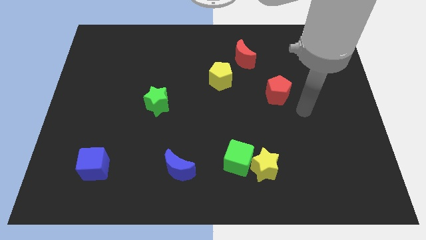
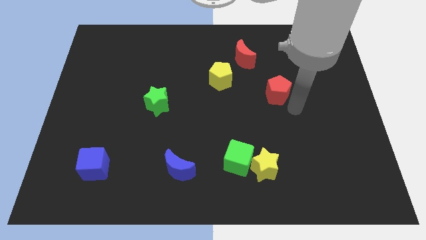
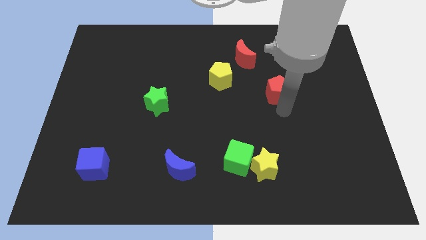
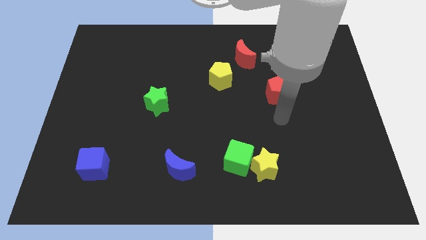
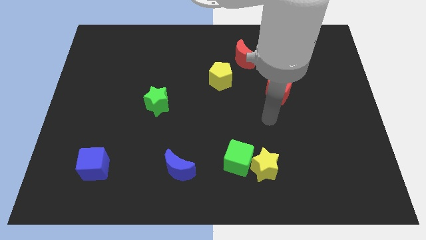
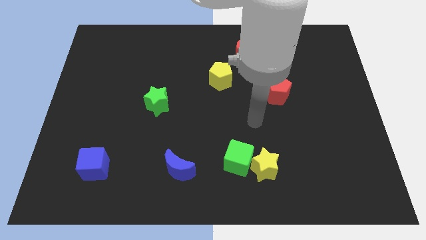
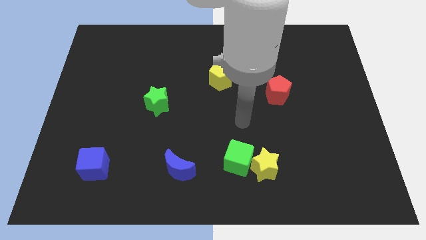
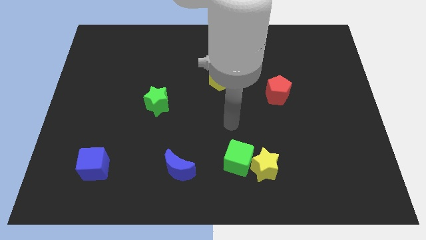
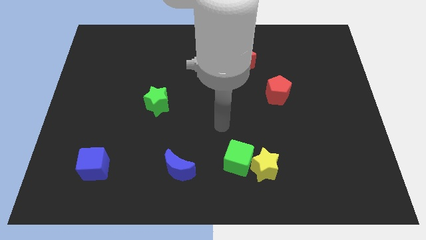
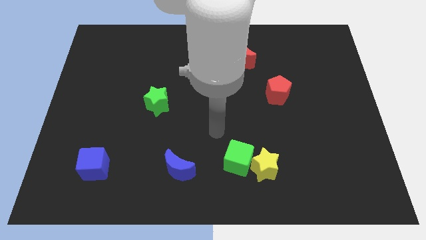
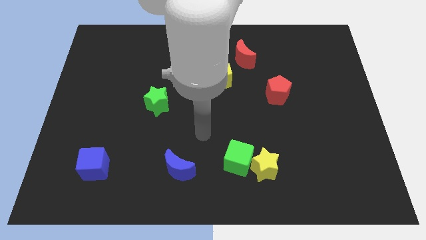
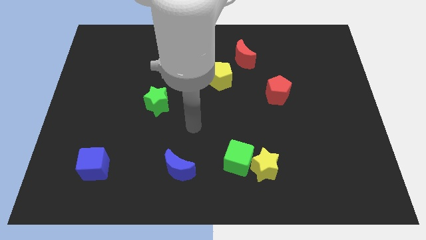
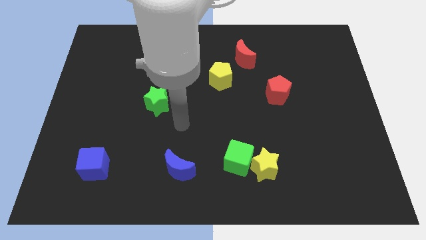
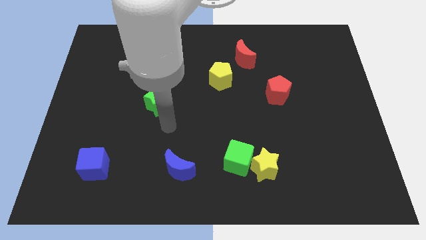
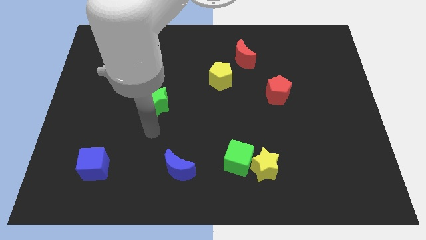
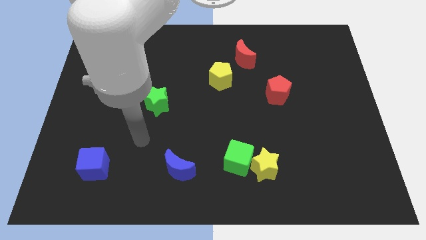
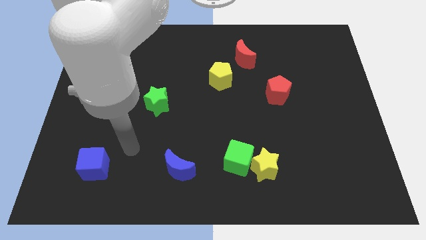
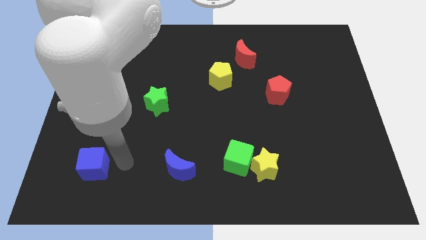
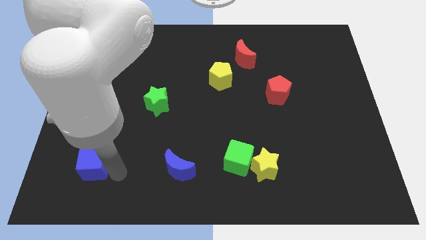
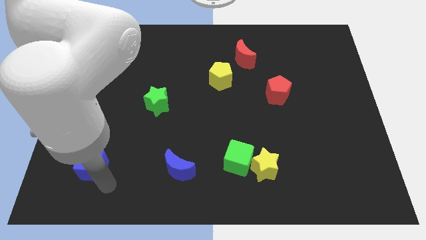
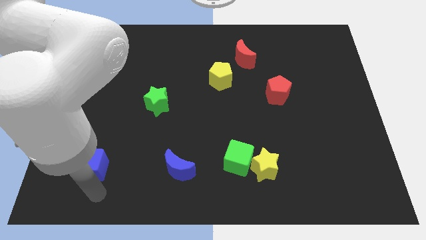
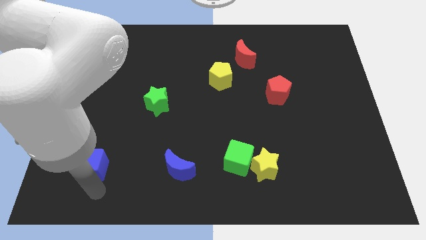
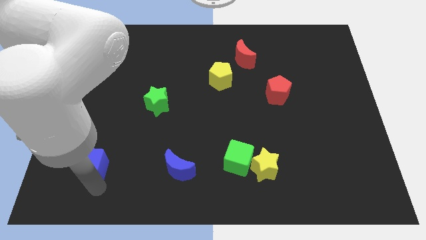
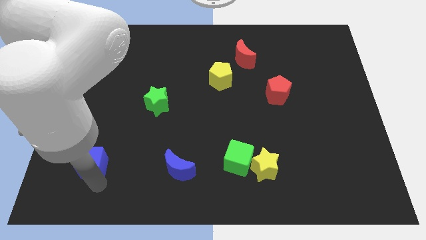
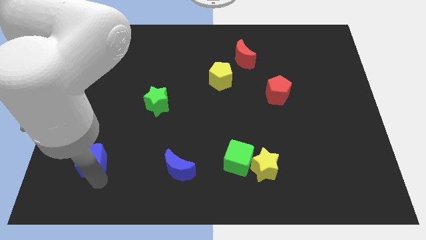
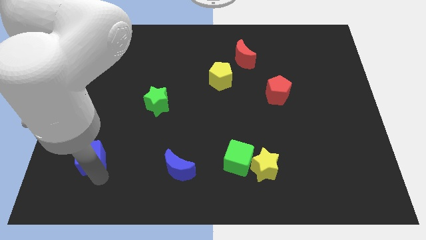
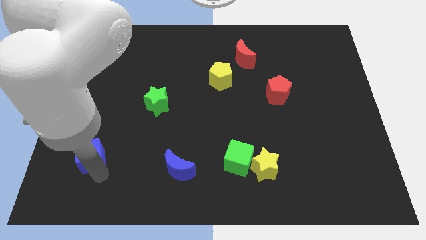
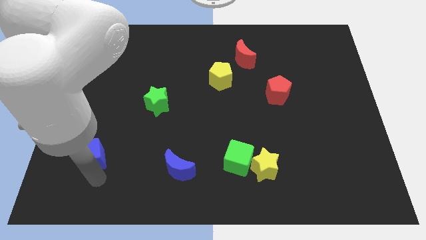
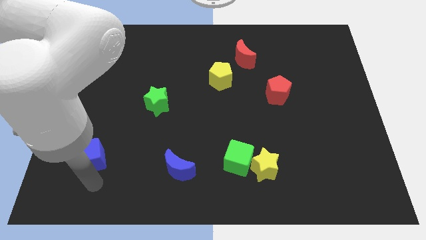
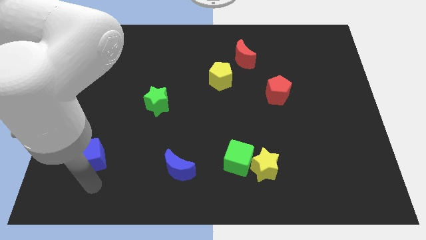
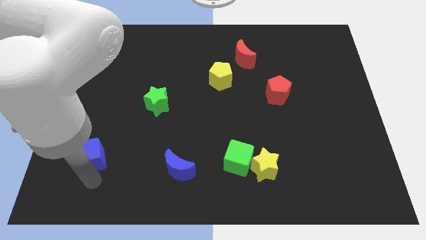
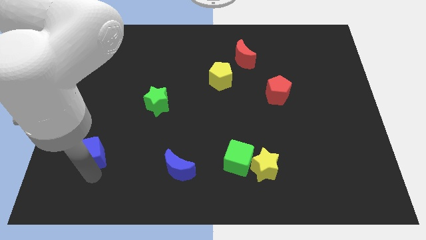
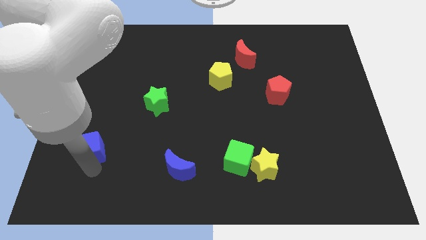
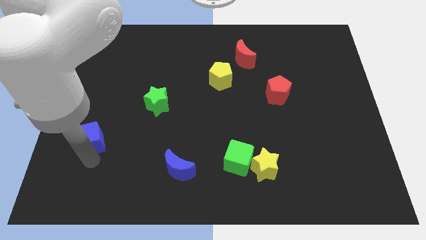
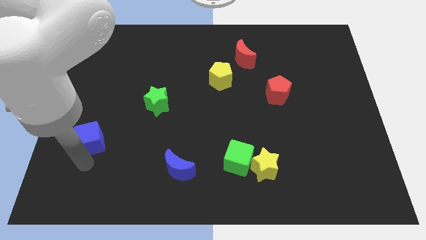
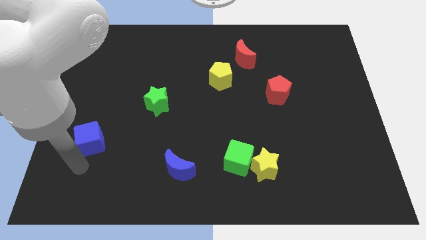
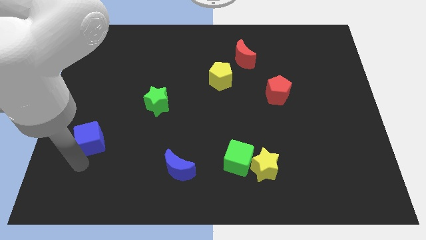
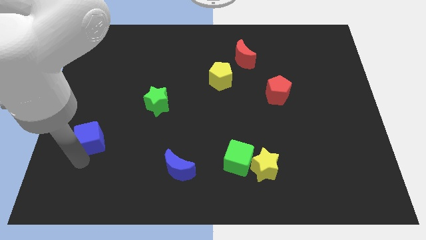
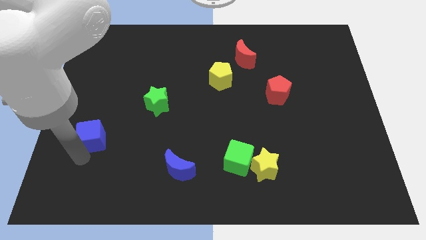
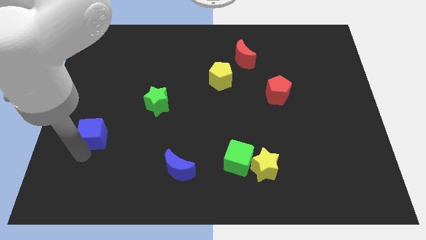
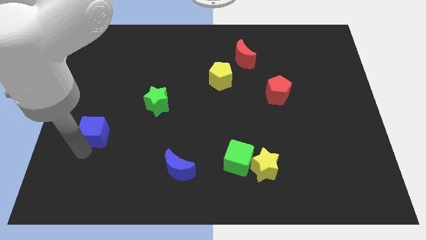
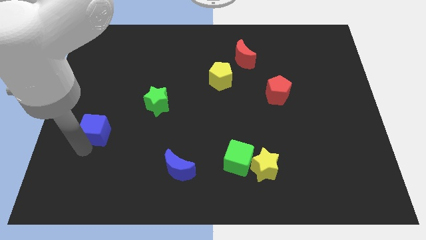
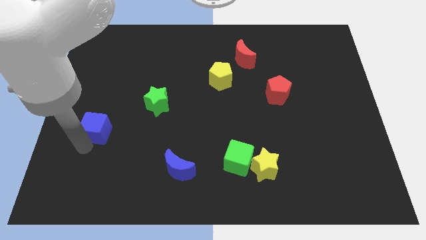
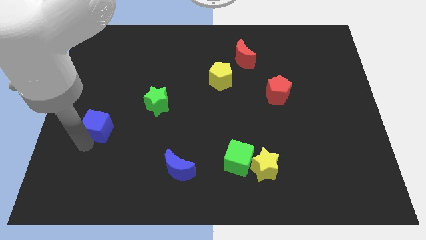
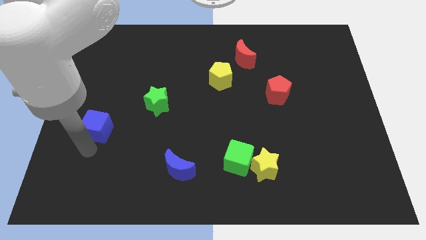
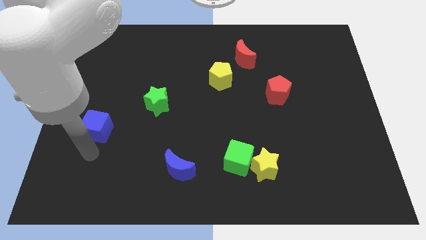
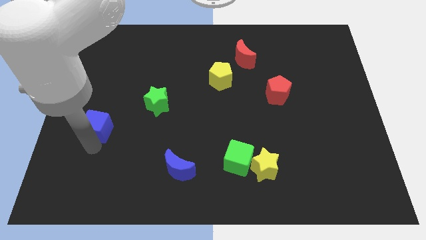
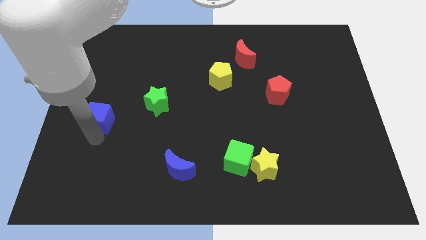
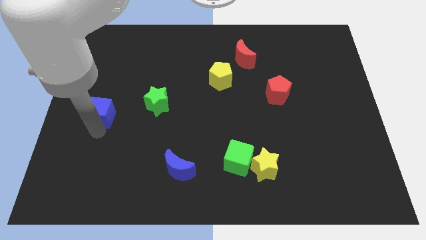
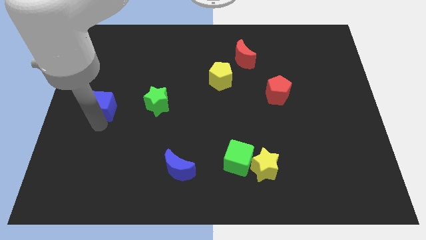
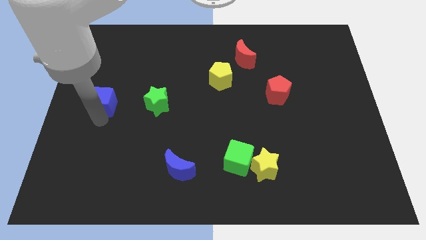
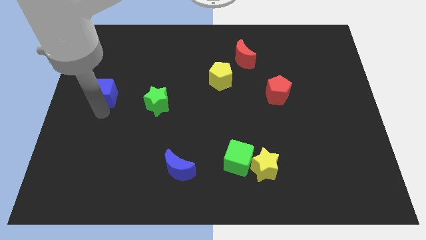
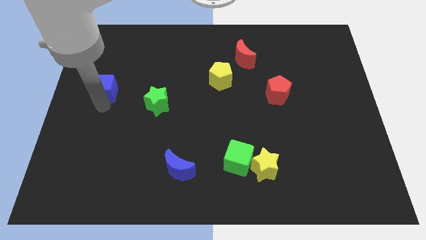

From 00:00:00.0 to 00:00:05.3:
move the blue cube up

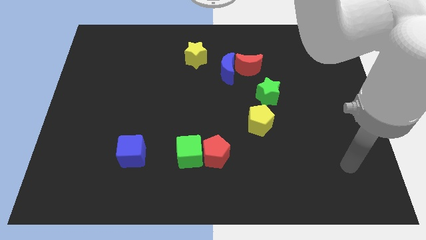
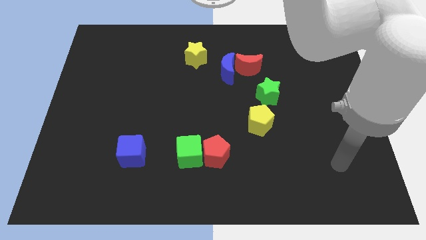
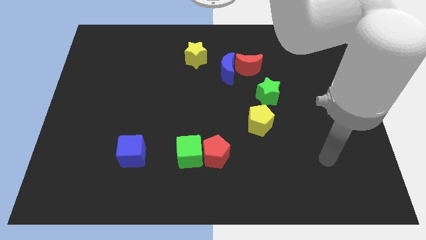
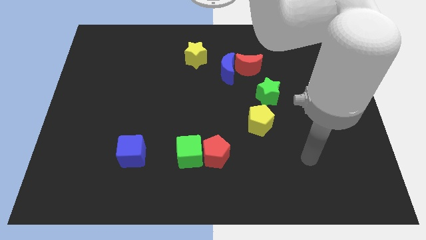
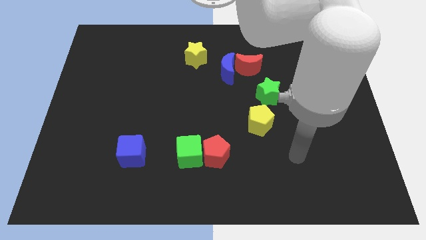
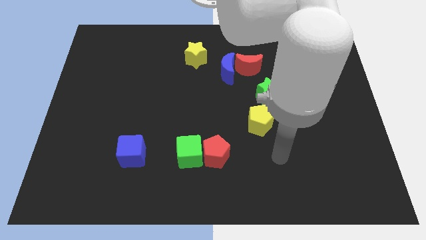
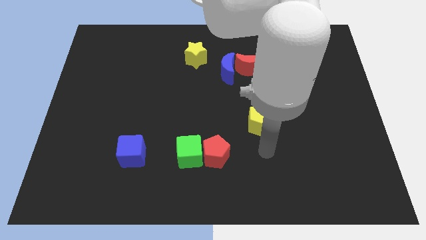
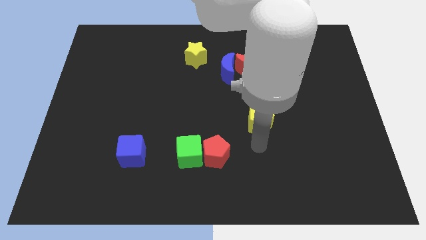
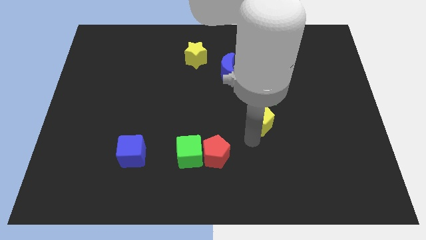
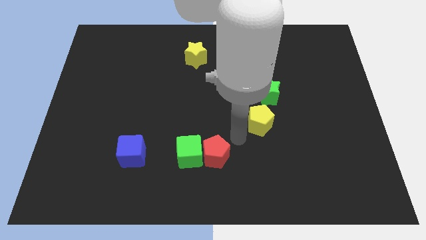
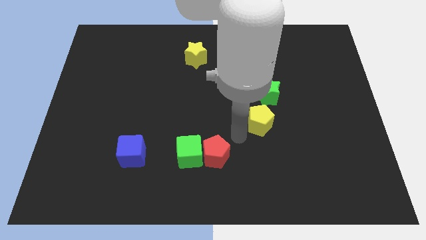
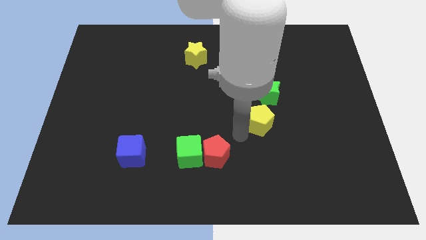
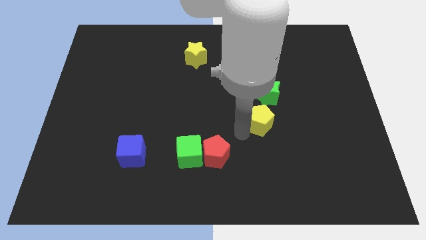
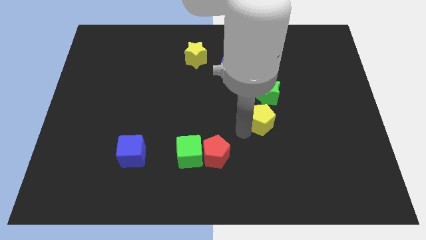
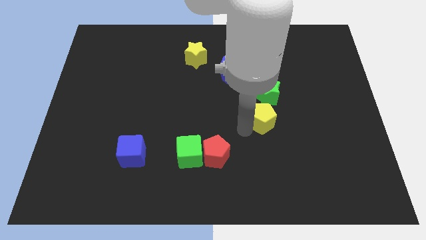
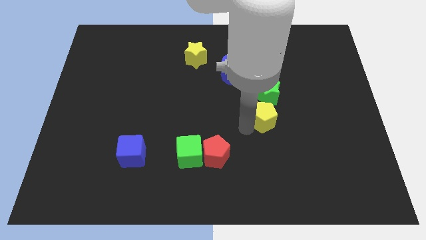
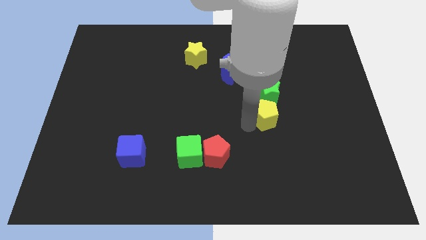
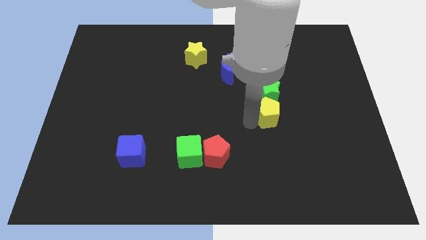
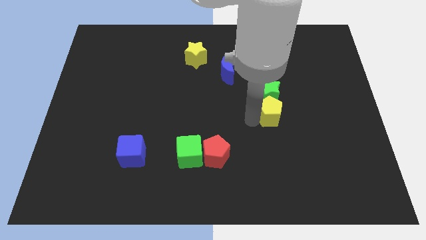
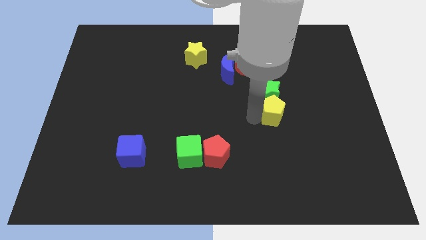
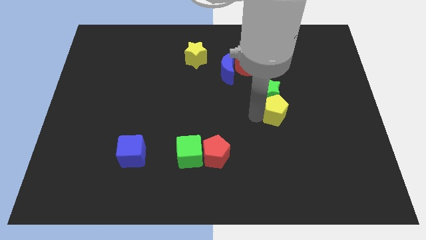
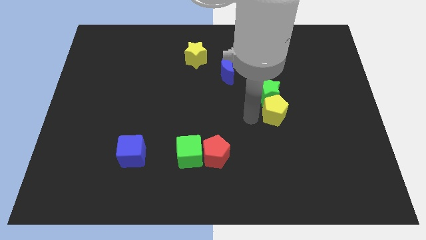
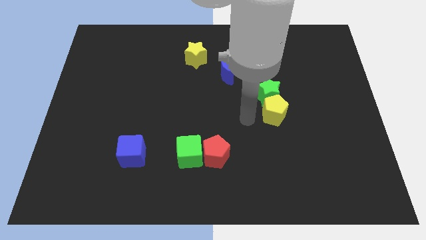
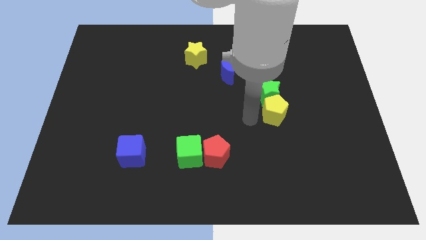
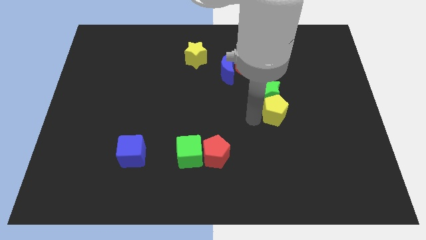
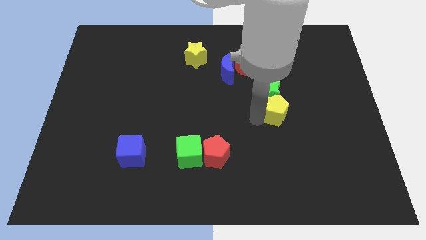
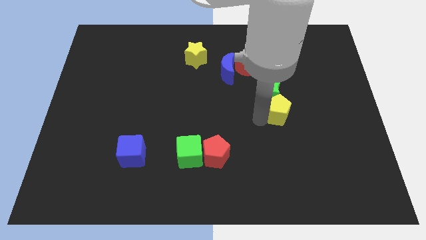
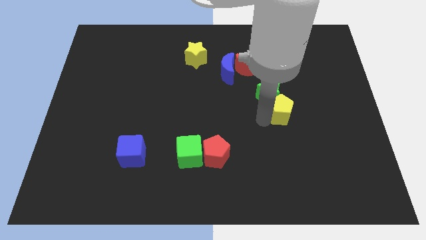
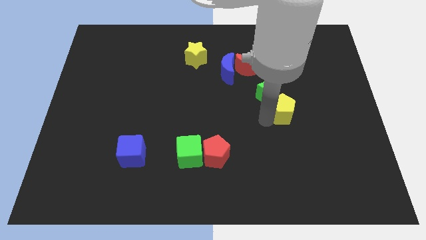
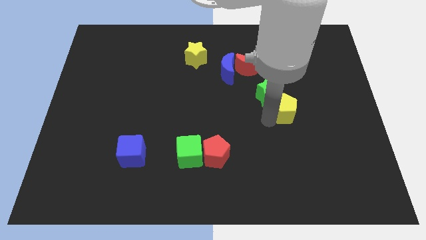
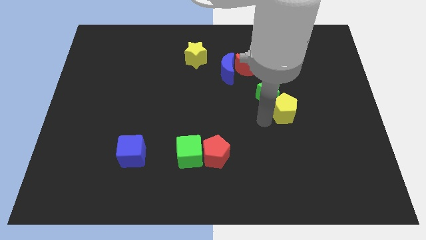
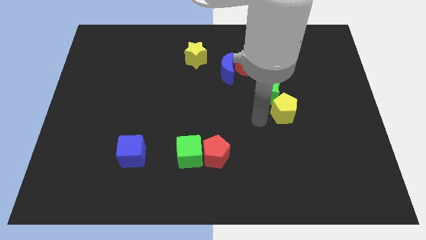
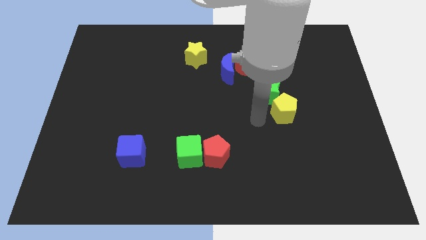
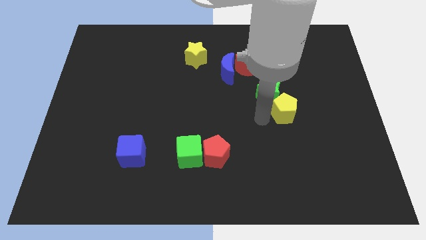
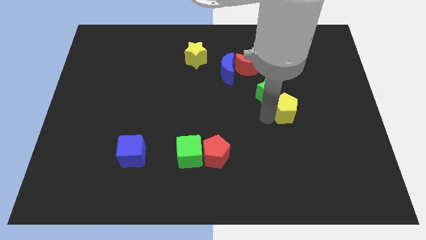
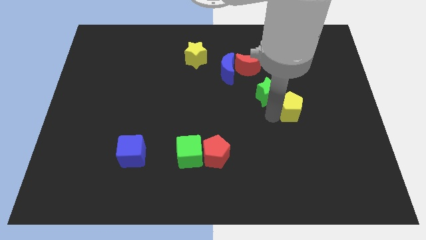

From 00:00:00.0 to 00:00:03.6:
move the yellow pentagon slightly upwards and right
